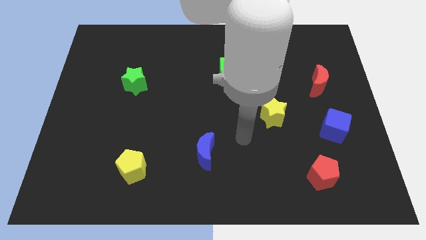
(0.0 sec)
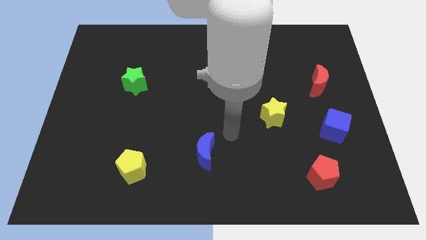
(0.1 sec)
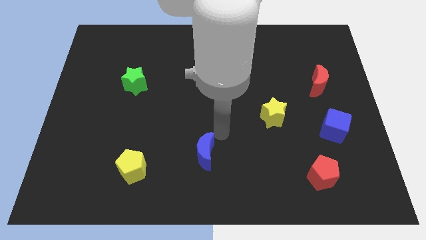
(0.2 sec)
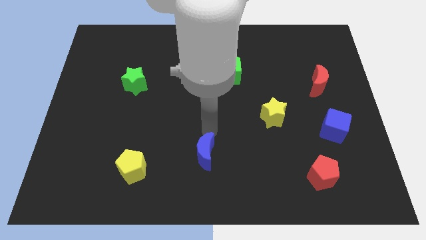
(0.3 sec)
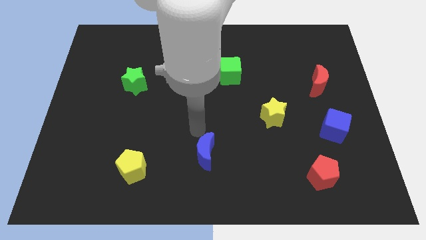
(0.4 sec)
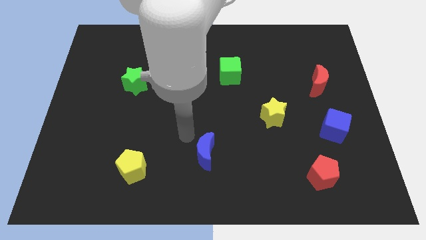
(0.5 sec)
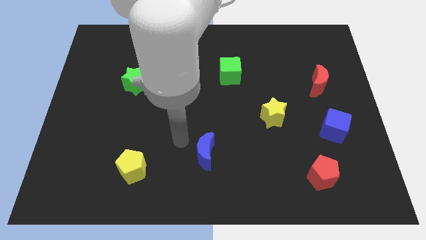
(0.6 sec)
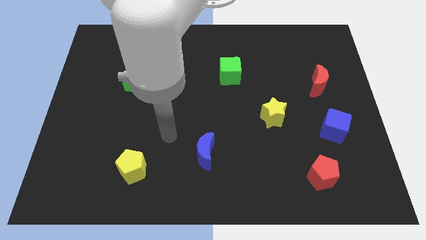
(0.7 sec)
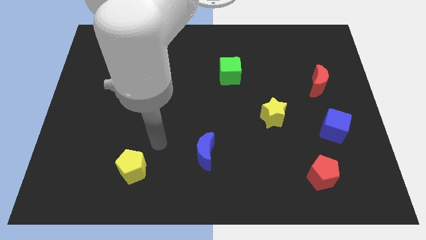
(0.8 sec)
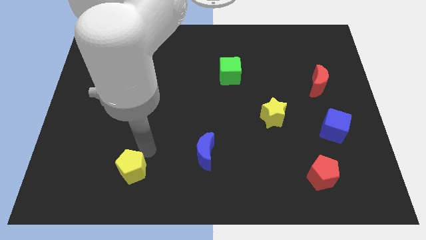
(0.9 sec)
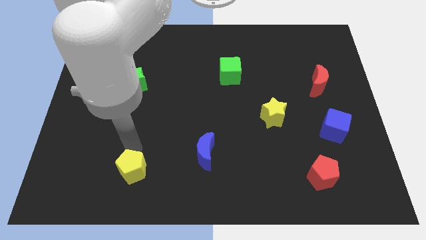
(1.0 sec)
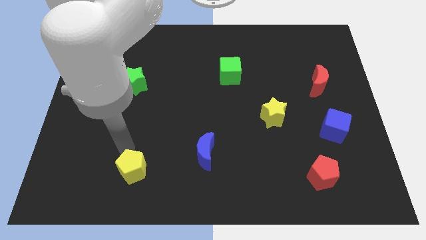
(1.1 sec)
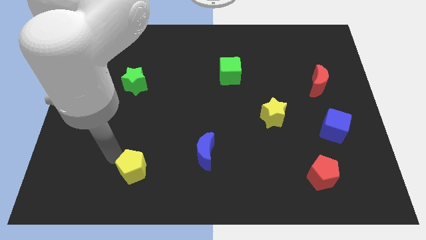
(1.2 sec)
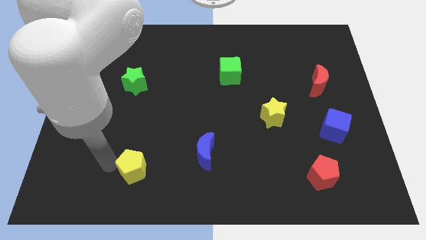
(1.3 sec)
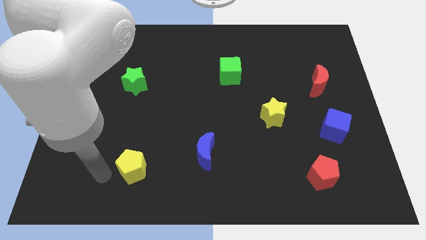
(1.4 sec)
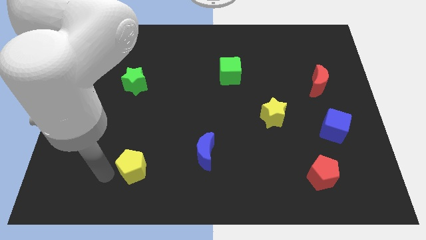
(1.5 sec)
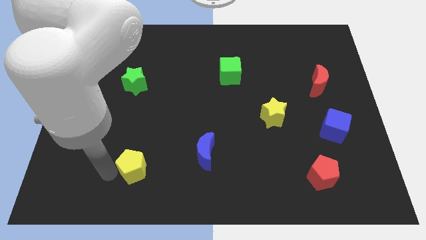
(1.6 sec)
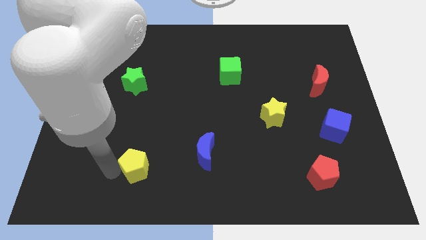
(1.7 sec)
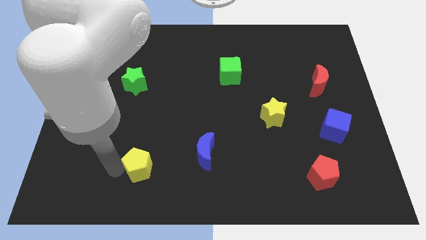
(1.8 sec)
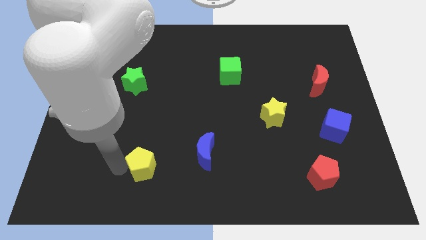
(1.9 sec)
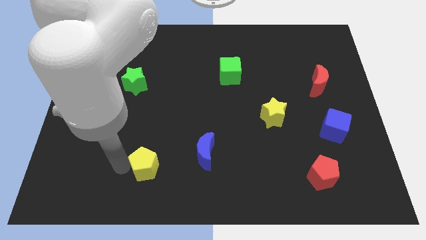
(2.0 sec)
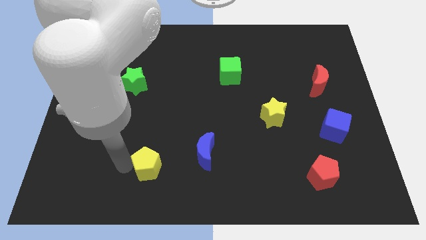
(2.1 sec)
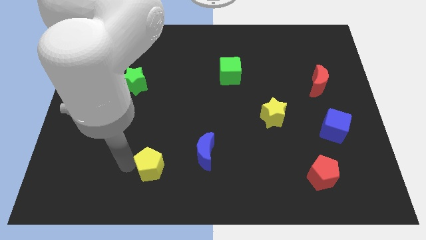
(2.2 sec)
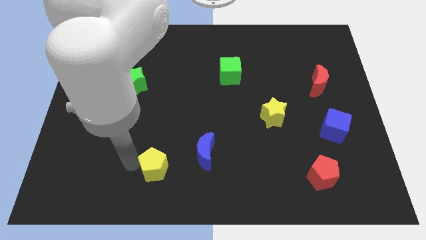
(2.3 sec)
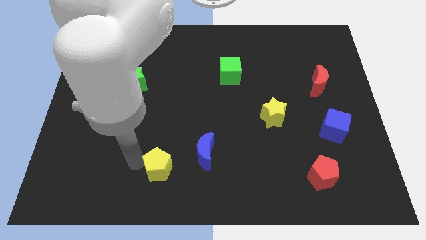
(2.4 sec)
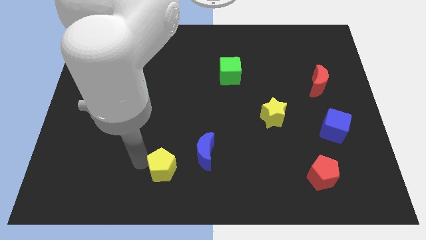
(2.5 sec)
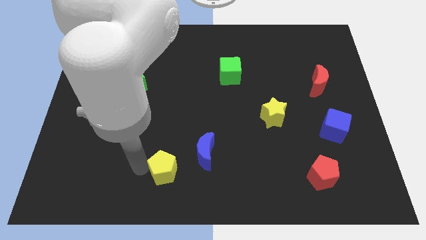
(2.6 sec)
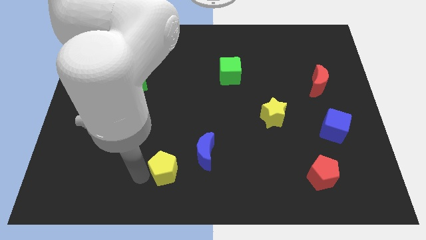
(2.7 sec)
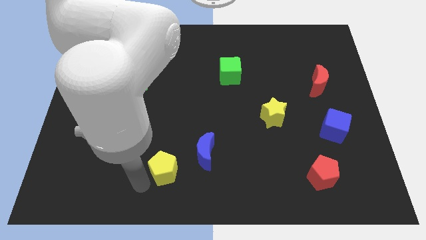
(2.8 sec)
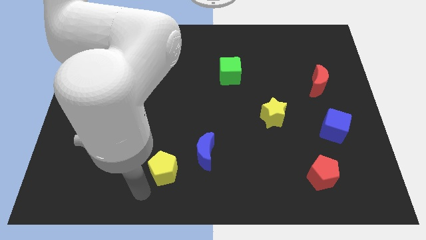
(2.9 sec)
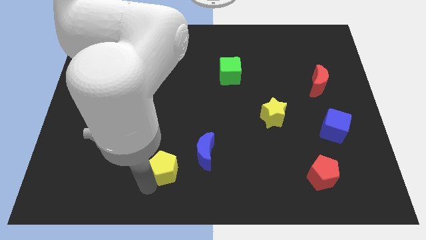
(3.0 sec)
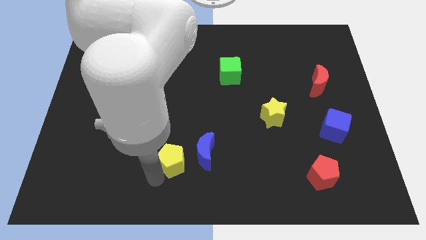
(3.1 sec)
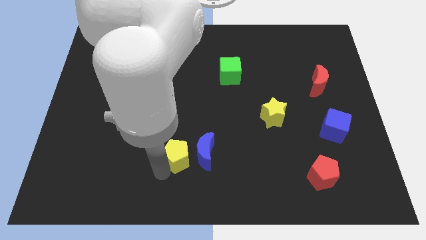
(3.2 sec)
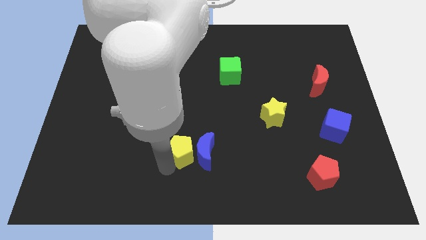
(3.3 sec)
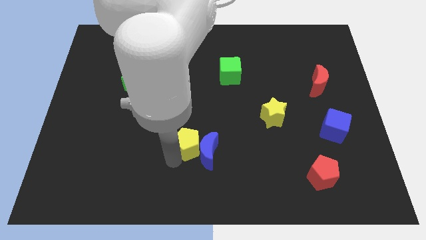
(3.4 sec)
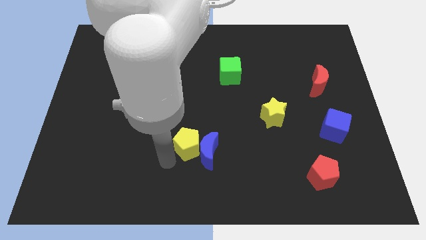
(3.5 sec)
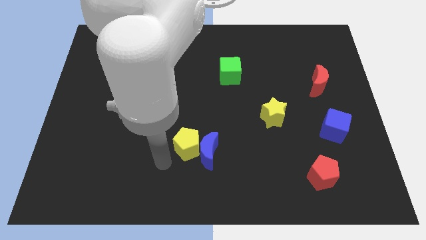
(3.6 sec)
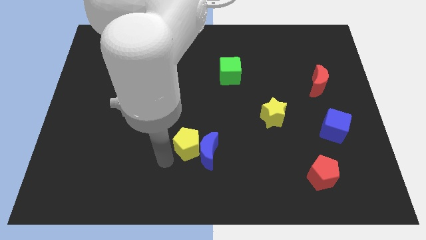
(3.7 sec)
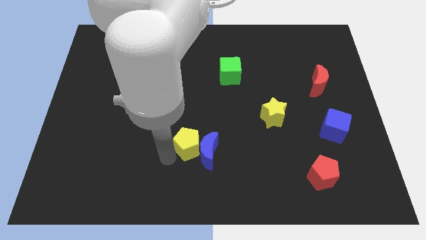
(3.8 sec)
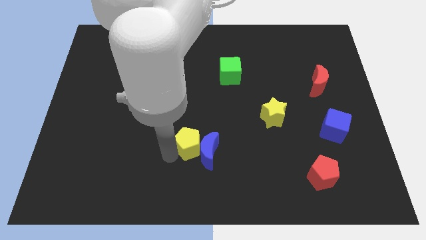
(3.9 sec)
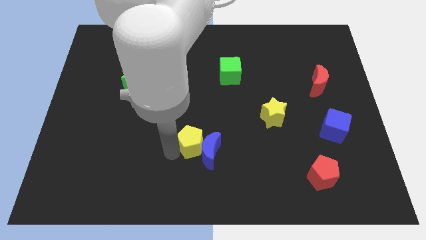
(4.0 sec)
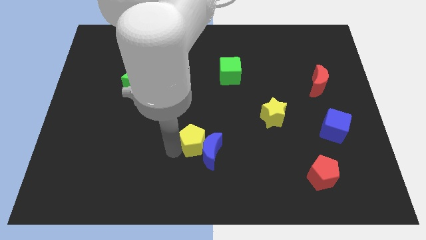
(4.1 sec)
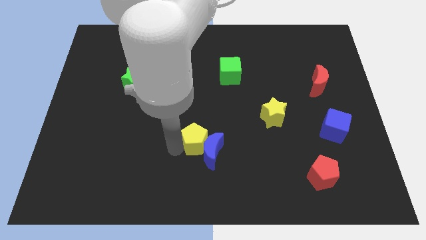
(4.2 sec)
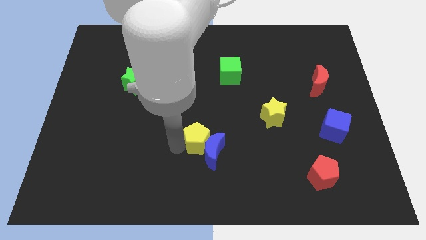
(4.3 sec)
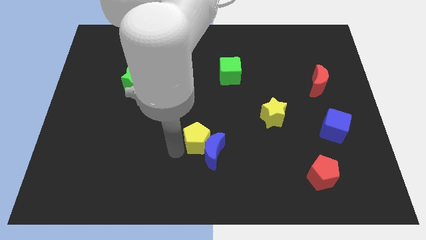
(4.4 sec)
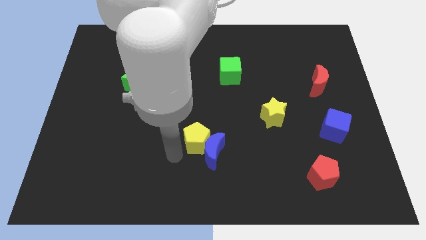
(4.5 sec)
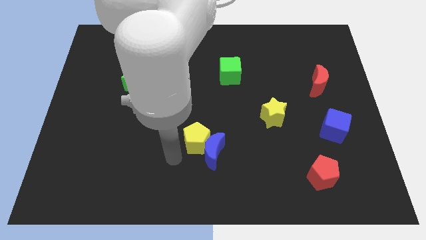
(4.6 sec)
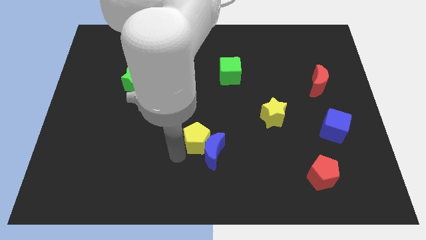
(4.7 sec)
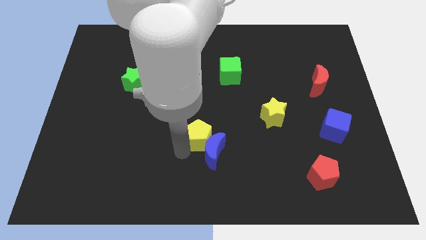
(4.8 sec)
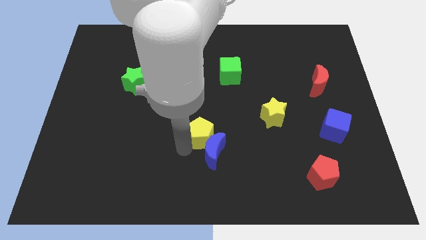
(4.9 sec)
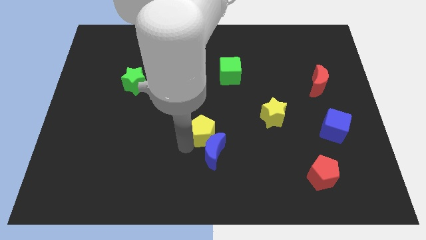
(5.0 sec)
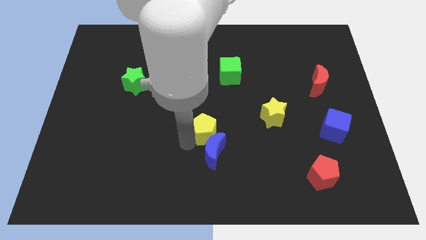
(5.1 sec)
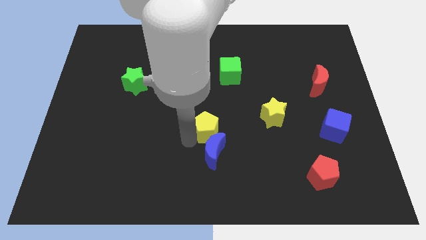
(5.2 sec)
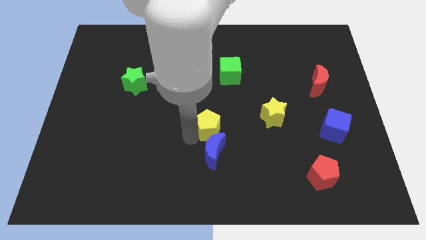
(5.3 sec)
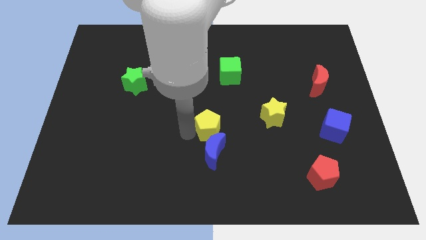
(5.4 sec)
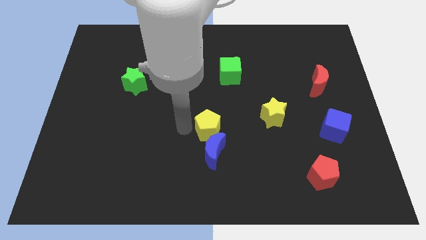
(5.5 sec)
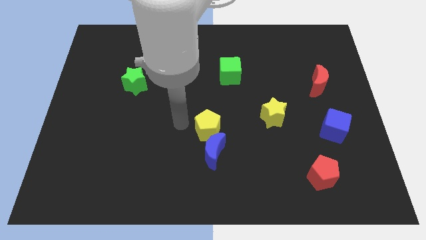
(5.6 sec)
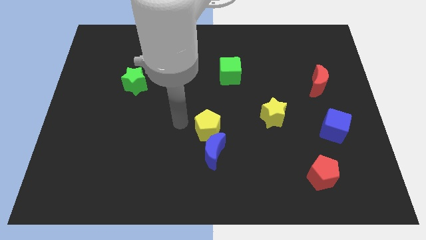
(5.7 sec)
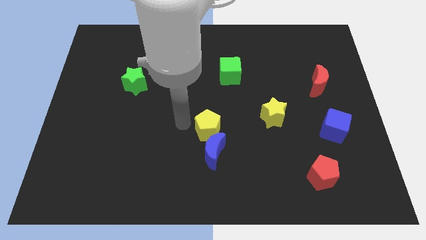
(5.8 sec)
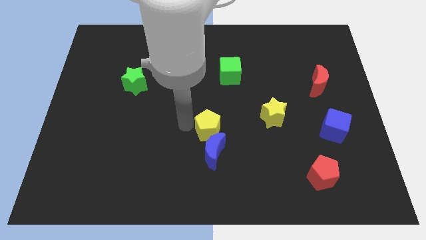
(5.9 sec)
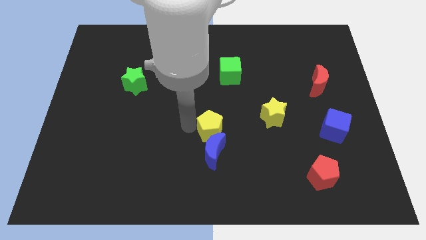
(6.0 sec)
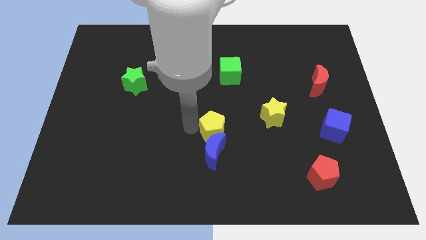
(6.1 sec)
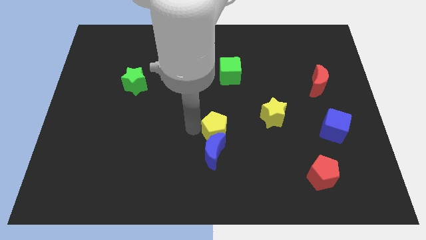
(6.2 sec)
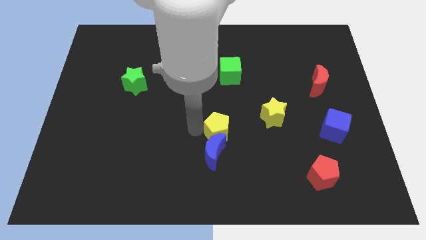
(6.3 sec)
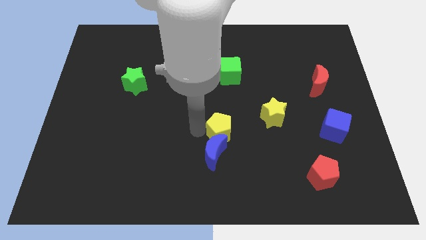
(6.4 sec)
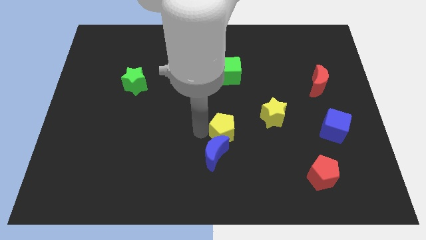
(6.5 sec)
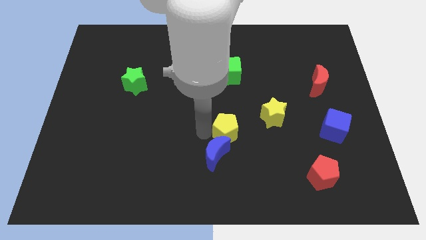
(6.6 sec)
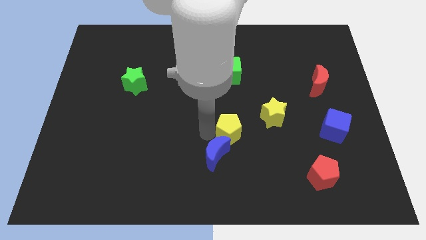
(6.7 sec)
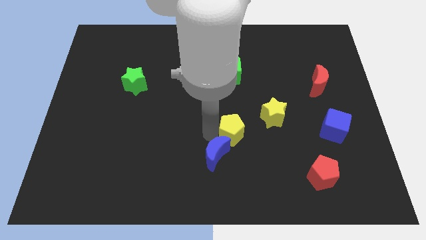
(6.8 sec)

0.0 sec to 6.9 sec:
slide the yellow pentagon to the bottom left side of the yellow star
